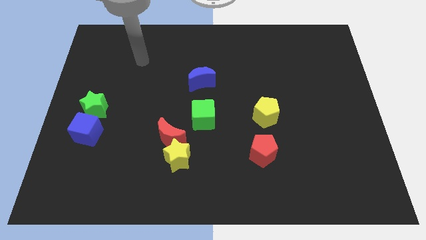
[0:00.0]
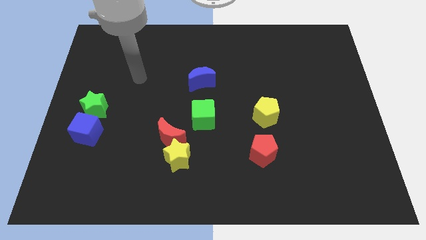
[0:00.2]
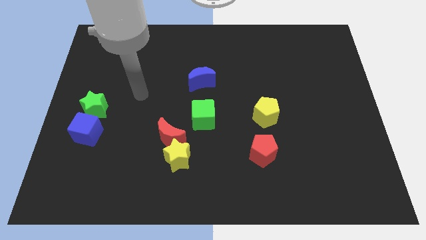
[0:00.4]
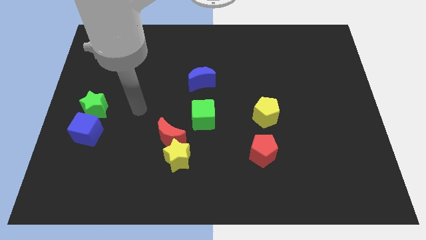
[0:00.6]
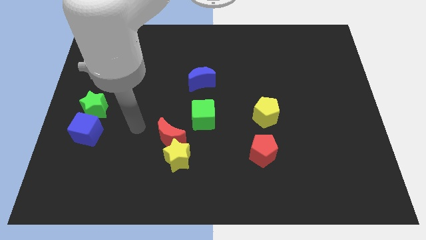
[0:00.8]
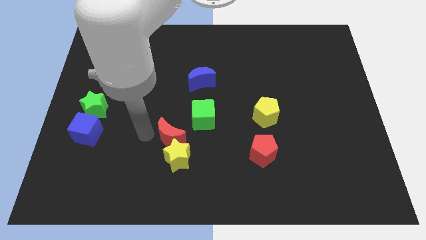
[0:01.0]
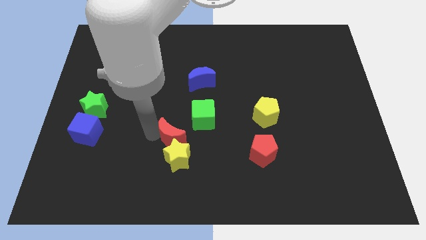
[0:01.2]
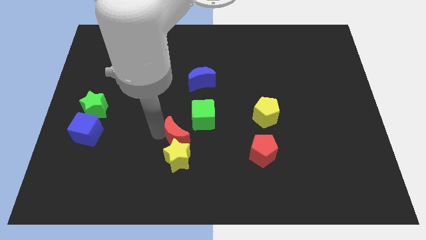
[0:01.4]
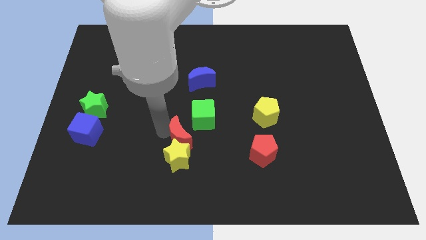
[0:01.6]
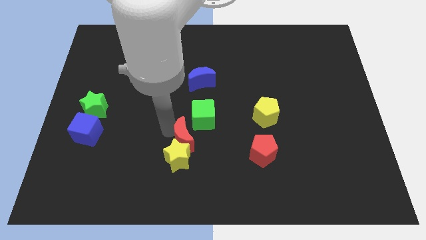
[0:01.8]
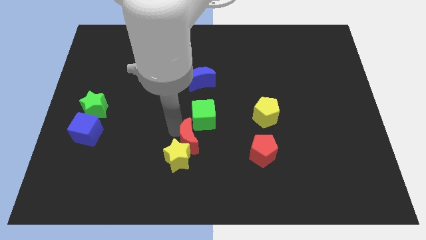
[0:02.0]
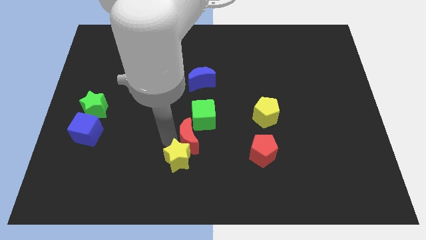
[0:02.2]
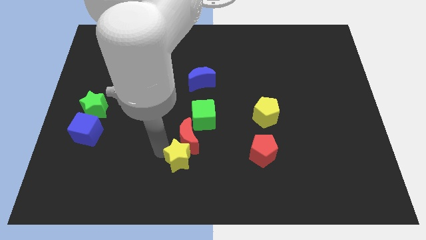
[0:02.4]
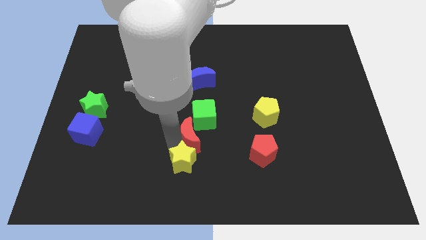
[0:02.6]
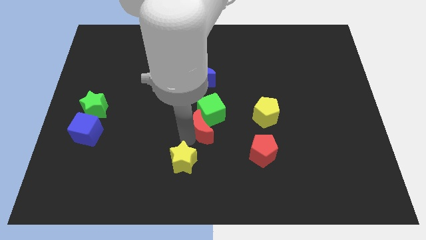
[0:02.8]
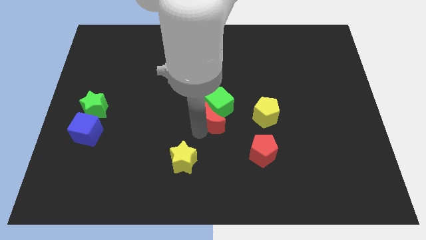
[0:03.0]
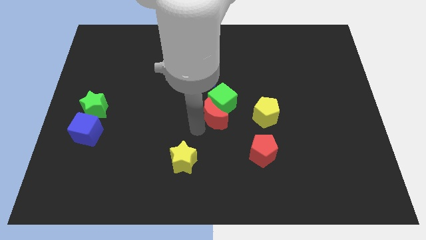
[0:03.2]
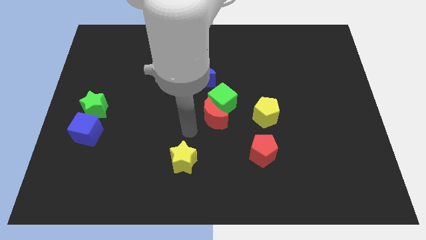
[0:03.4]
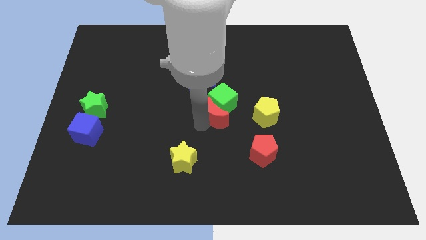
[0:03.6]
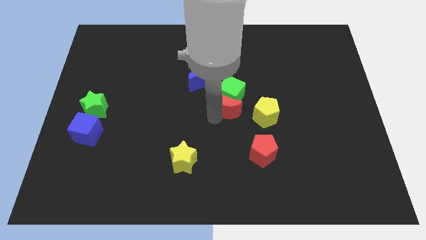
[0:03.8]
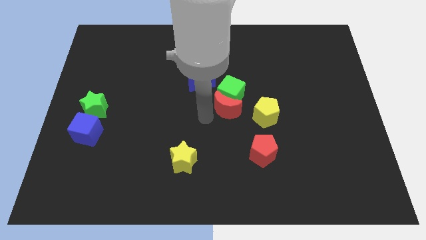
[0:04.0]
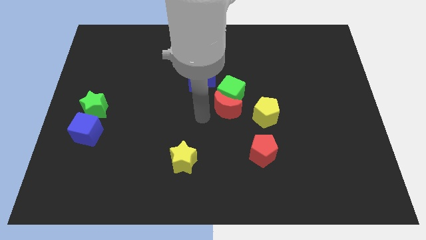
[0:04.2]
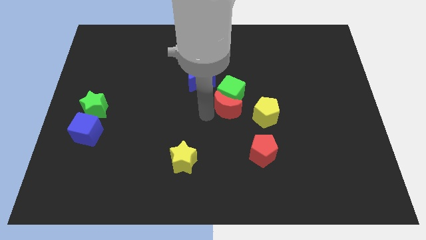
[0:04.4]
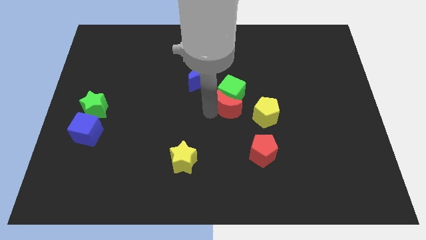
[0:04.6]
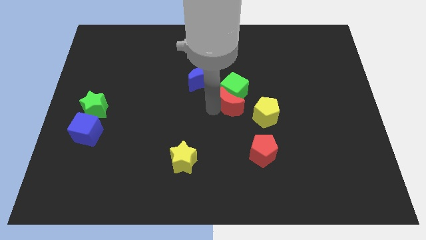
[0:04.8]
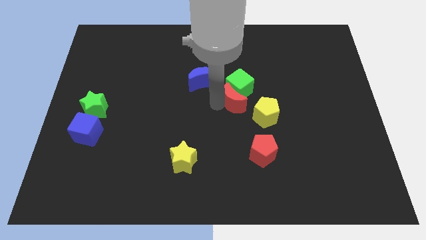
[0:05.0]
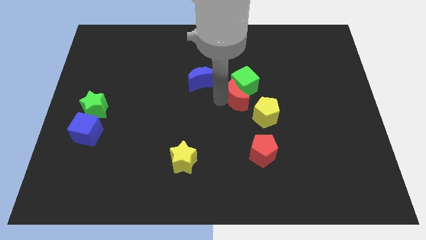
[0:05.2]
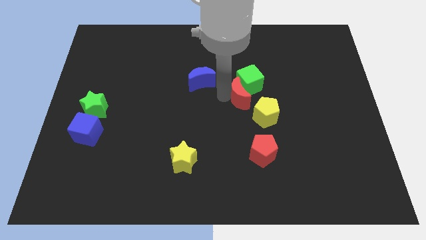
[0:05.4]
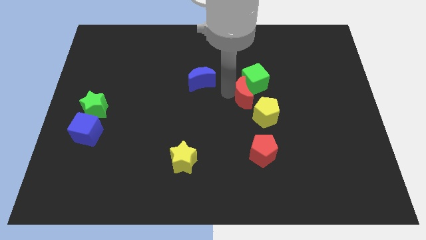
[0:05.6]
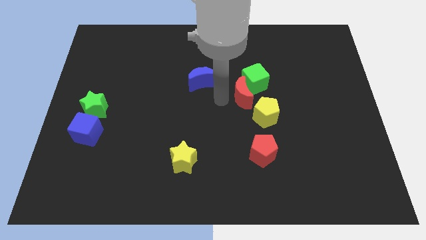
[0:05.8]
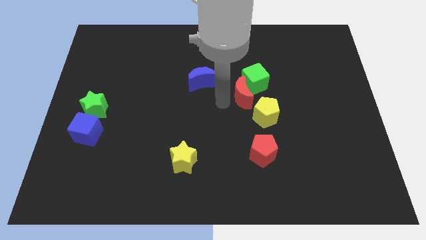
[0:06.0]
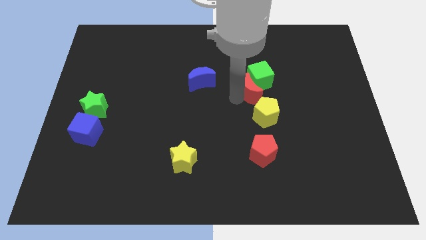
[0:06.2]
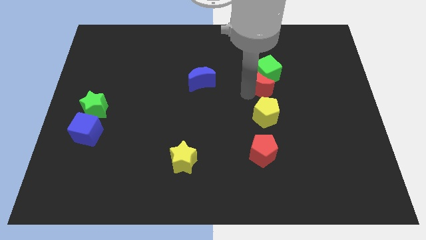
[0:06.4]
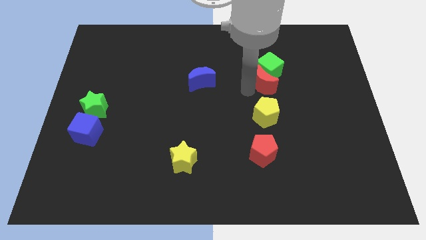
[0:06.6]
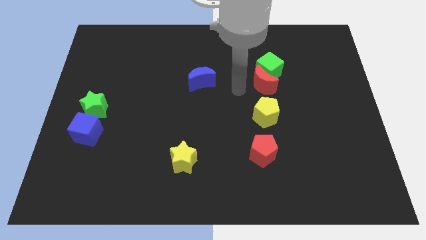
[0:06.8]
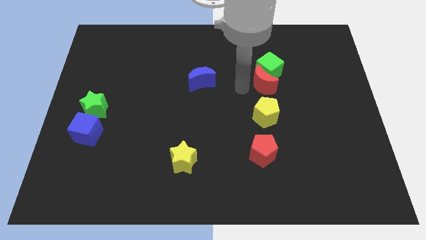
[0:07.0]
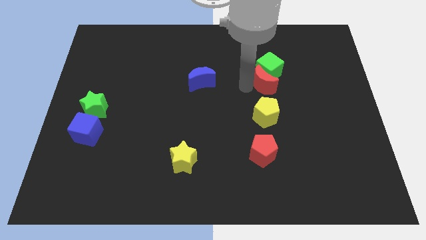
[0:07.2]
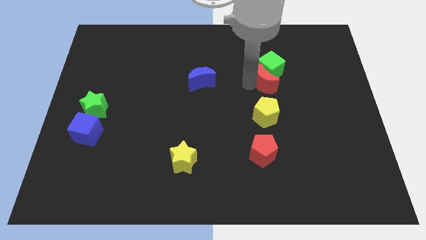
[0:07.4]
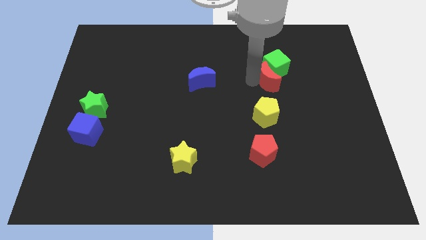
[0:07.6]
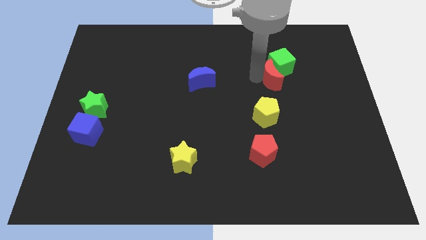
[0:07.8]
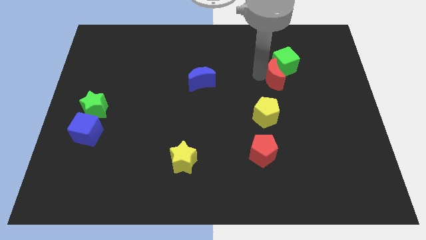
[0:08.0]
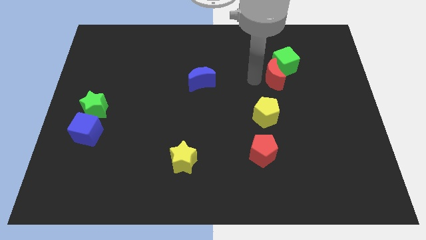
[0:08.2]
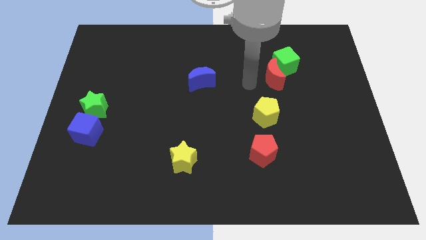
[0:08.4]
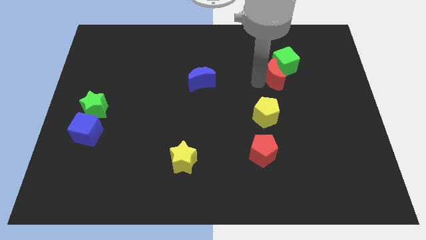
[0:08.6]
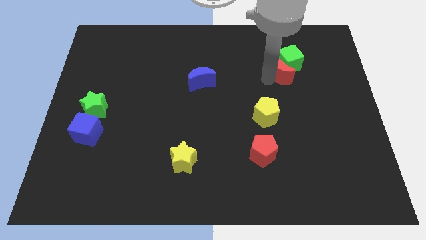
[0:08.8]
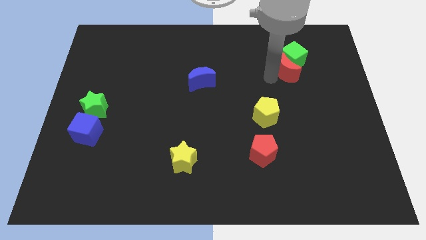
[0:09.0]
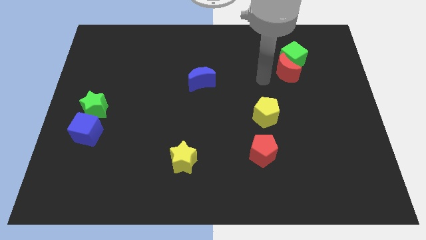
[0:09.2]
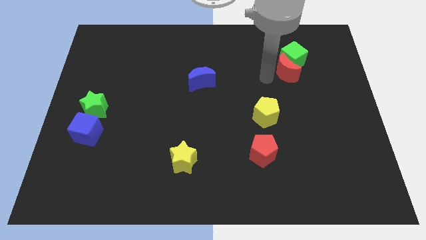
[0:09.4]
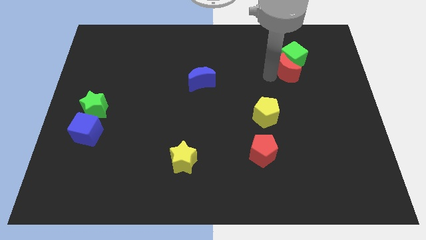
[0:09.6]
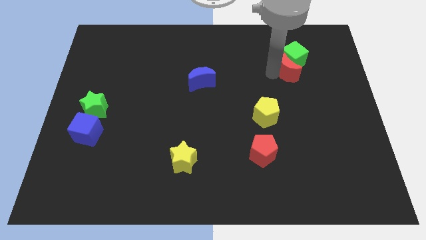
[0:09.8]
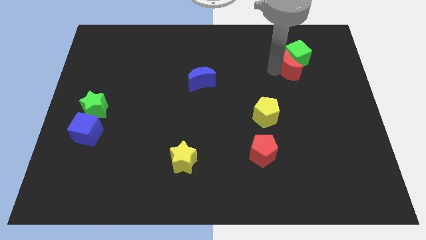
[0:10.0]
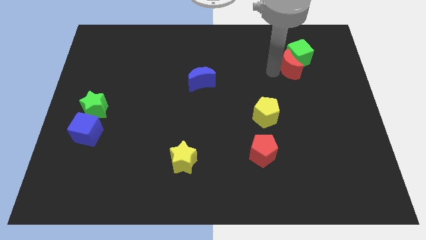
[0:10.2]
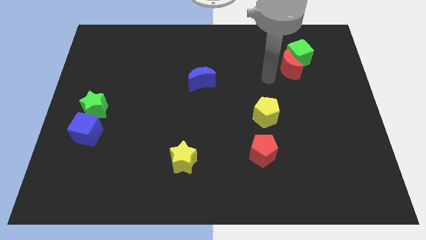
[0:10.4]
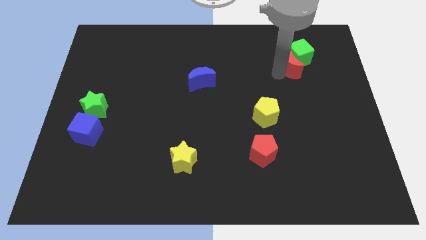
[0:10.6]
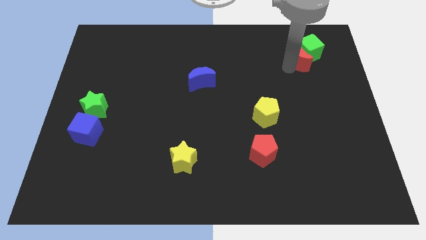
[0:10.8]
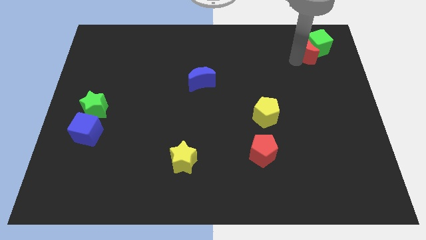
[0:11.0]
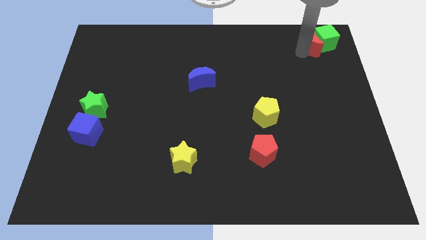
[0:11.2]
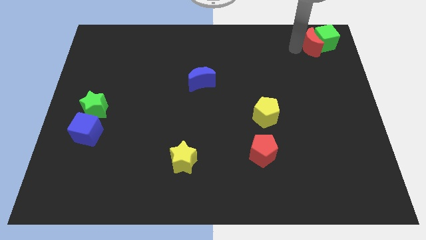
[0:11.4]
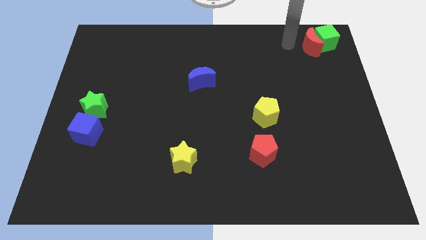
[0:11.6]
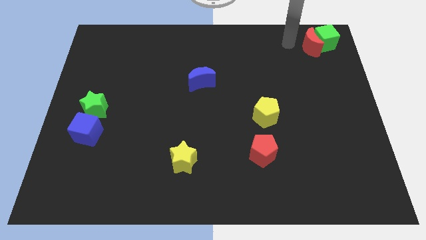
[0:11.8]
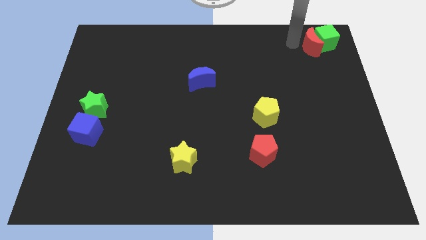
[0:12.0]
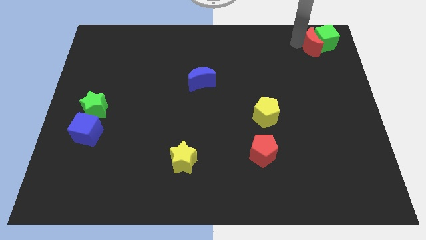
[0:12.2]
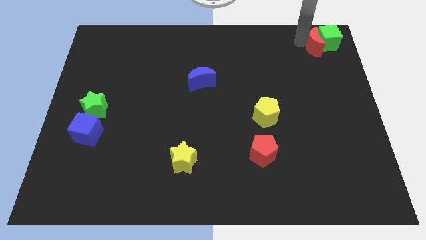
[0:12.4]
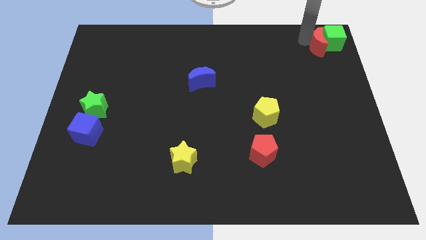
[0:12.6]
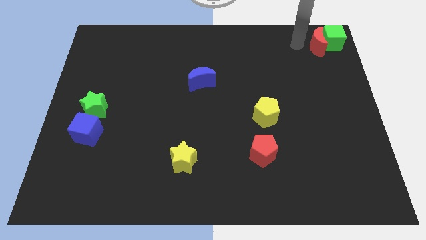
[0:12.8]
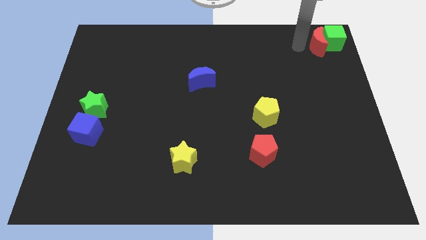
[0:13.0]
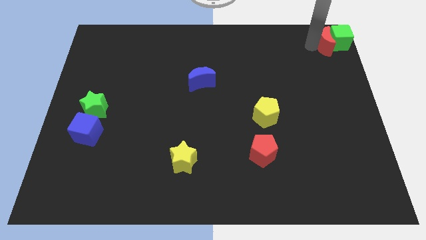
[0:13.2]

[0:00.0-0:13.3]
push the red moon to the upper right corner
